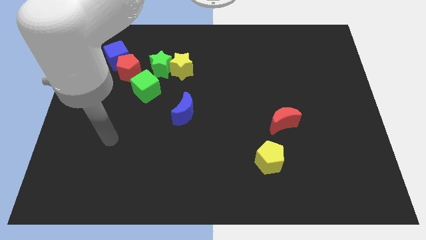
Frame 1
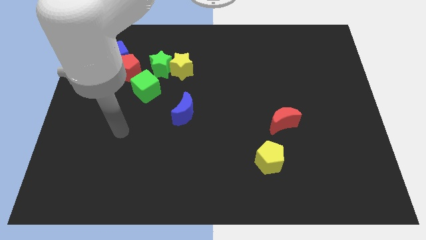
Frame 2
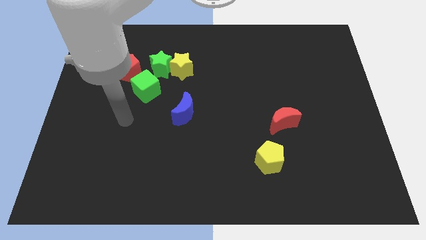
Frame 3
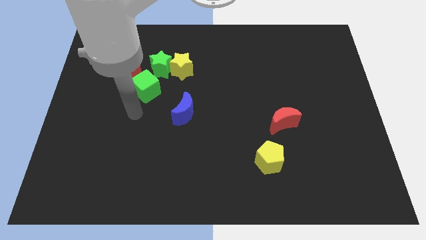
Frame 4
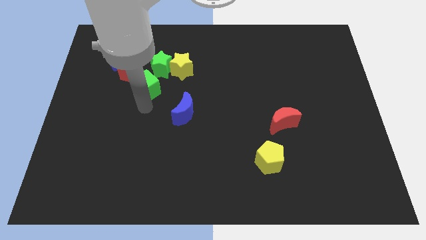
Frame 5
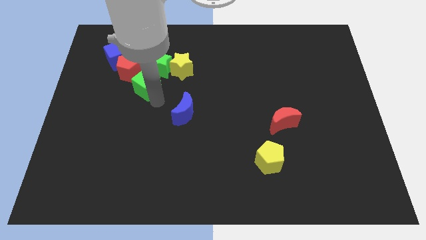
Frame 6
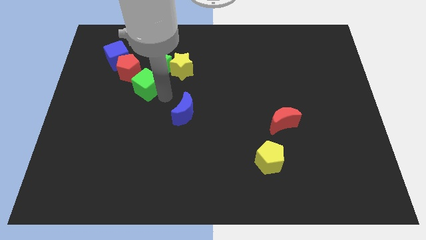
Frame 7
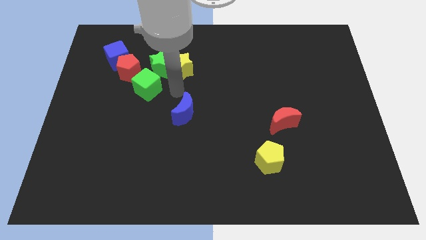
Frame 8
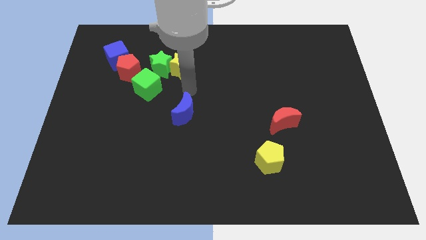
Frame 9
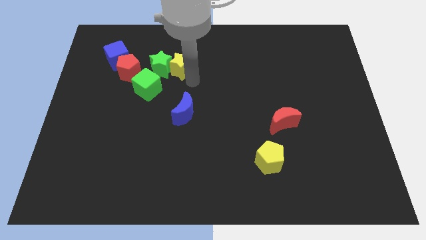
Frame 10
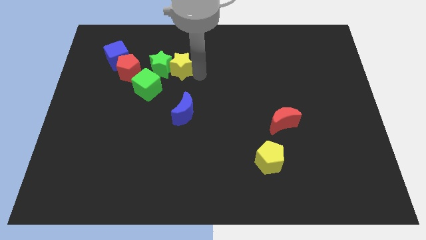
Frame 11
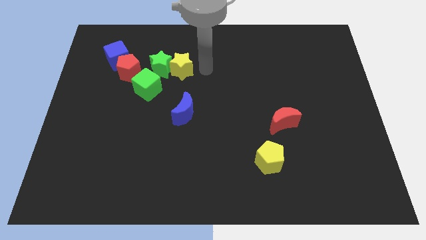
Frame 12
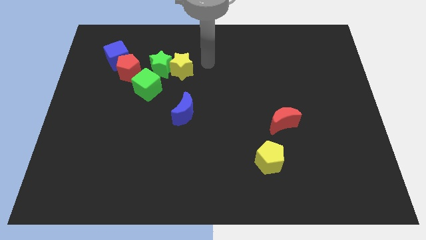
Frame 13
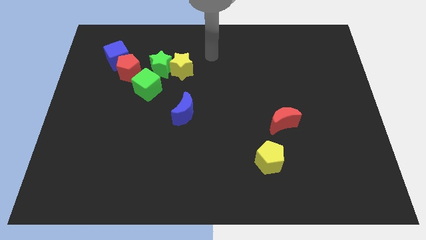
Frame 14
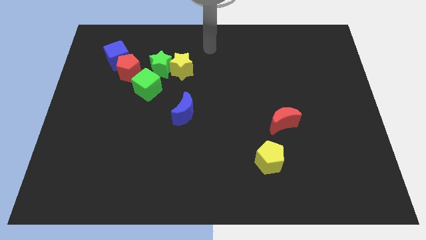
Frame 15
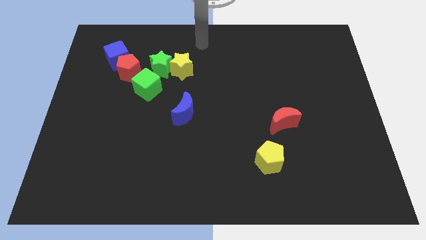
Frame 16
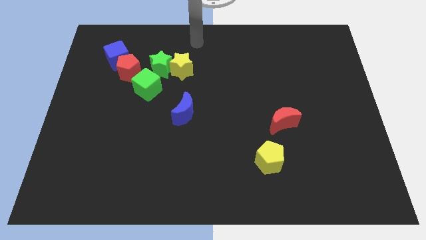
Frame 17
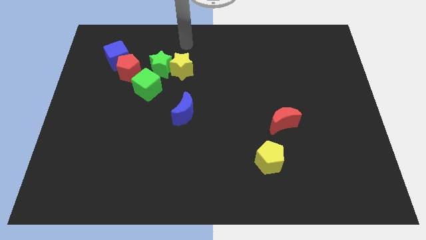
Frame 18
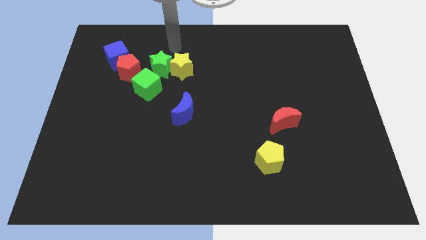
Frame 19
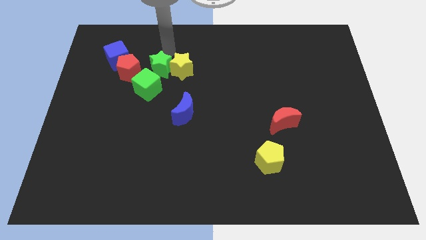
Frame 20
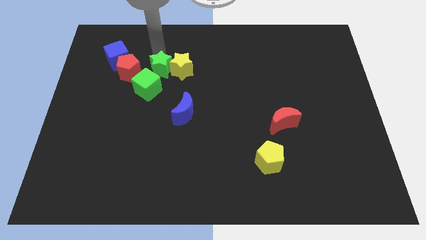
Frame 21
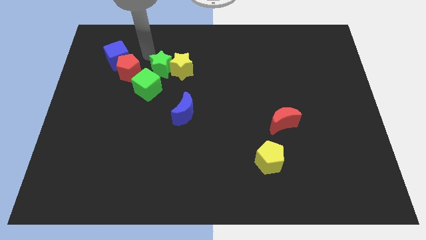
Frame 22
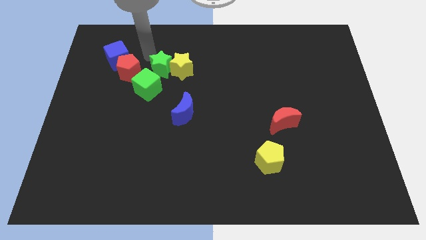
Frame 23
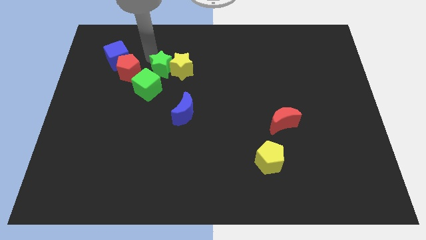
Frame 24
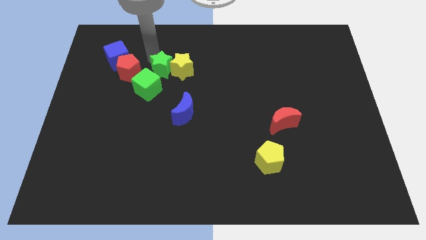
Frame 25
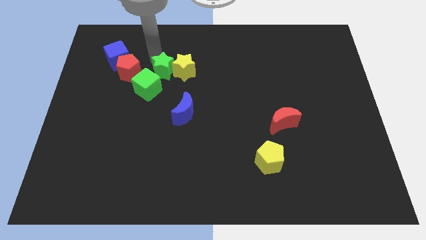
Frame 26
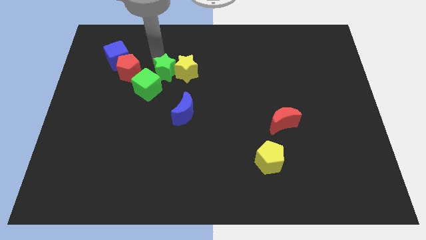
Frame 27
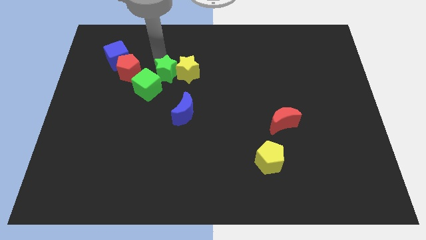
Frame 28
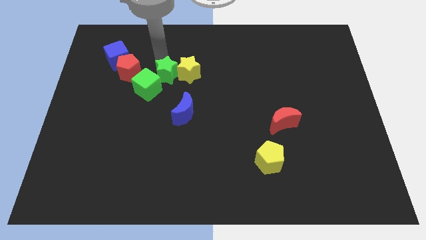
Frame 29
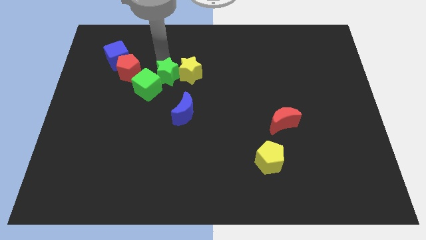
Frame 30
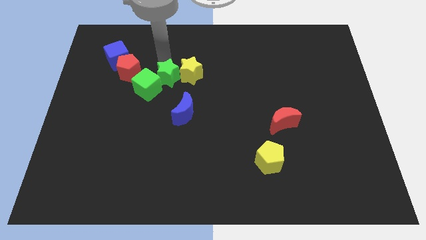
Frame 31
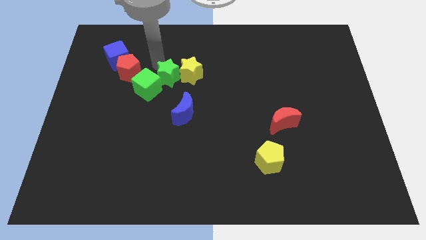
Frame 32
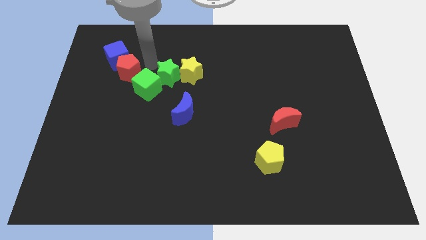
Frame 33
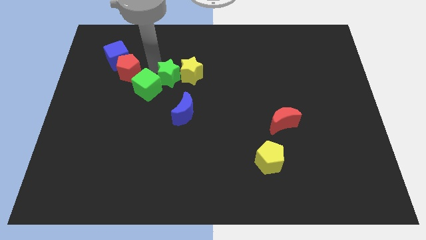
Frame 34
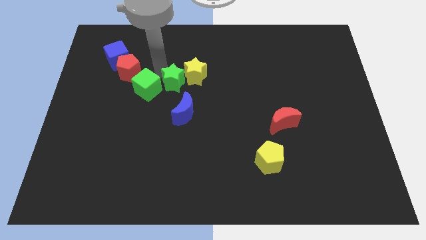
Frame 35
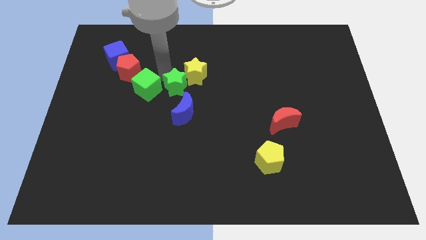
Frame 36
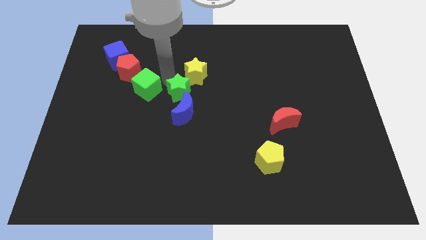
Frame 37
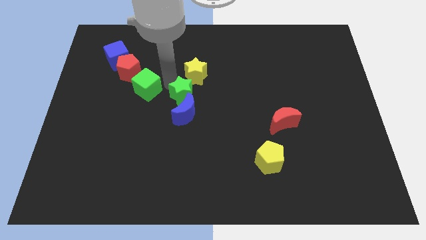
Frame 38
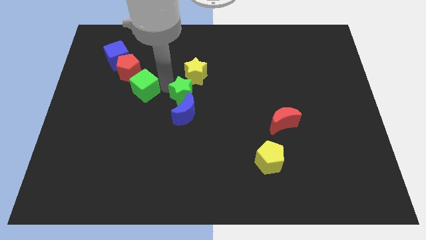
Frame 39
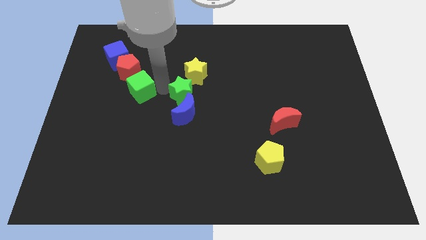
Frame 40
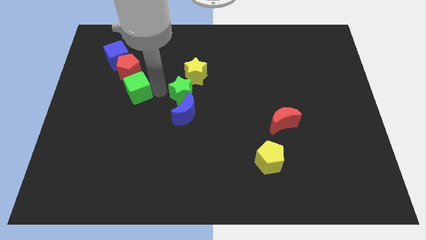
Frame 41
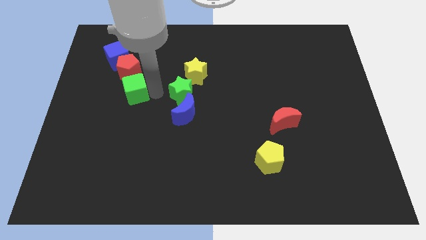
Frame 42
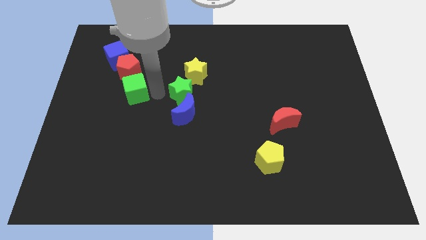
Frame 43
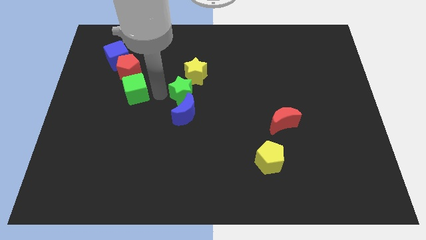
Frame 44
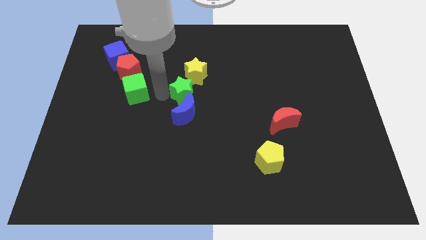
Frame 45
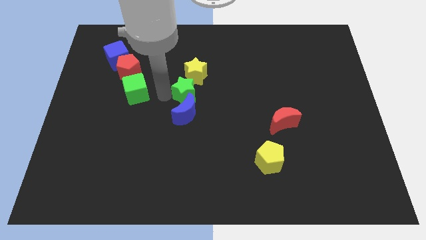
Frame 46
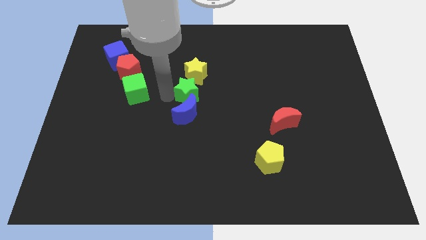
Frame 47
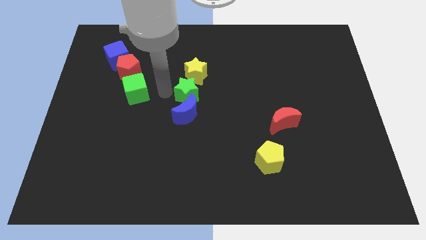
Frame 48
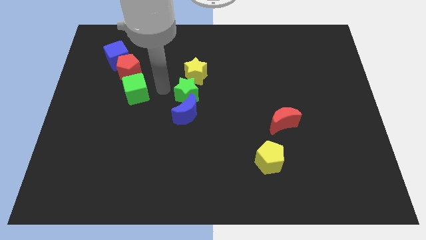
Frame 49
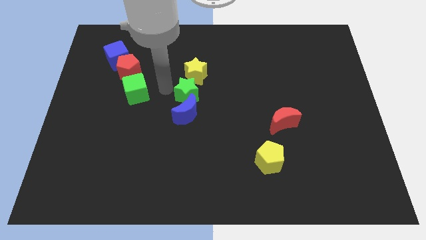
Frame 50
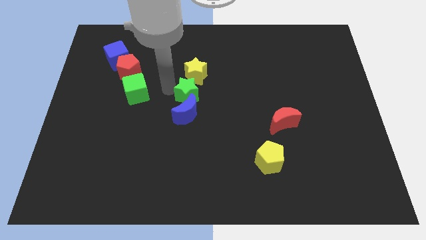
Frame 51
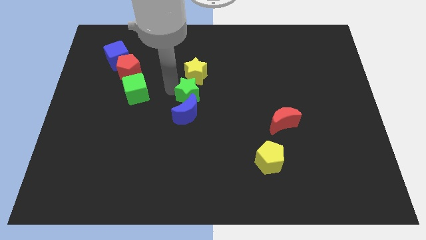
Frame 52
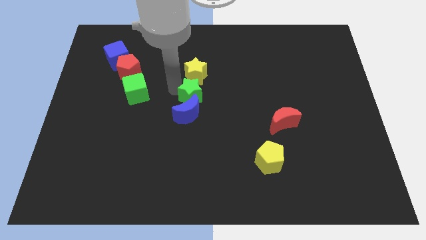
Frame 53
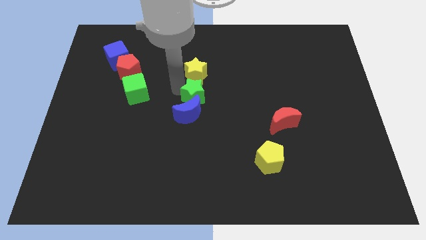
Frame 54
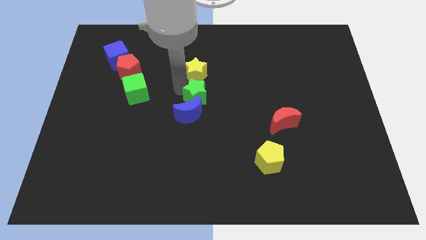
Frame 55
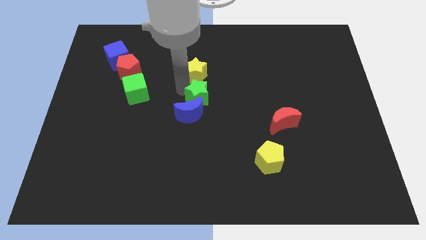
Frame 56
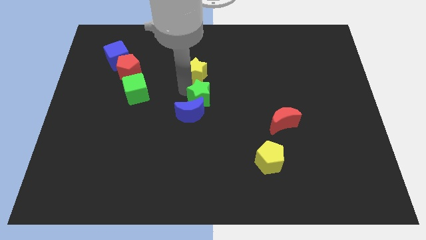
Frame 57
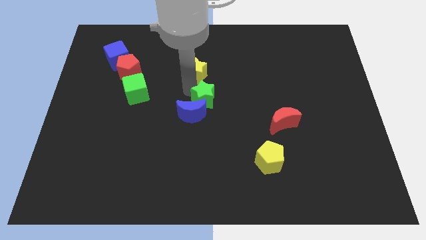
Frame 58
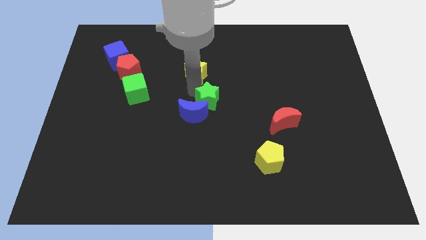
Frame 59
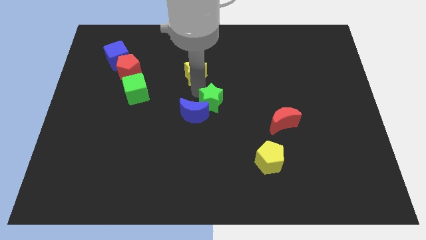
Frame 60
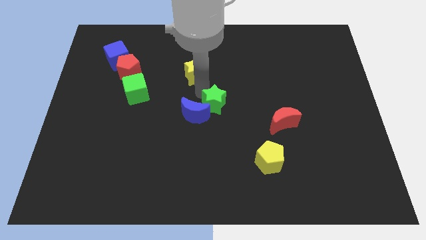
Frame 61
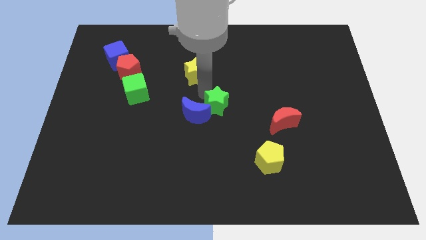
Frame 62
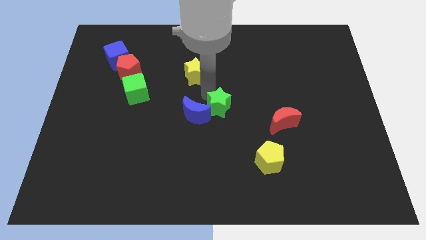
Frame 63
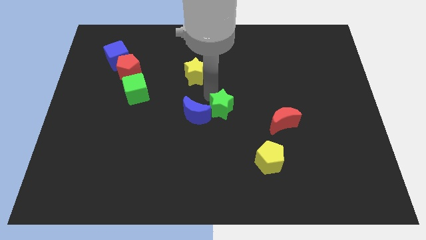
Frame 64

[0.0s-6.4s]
slide the green star just left of the red moon
